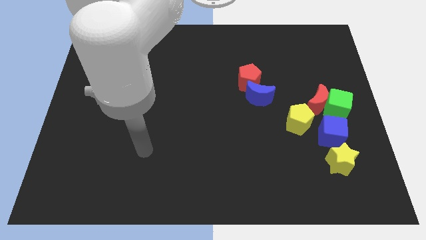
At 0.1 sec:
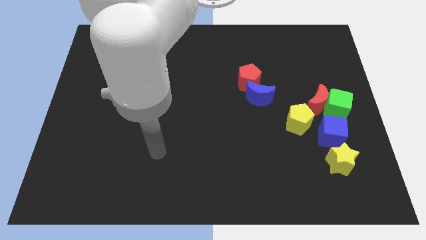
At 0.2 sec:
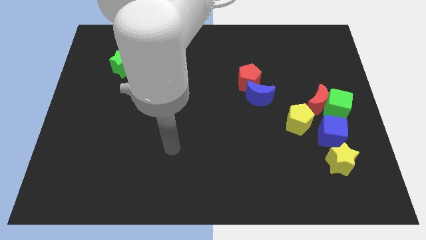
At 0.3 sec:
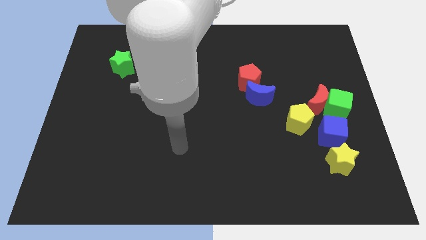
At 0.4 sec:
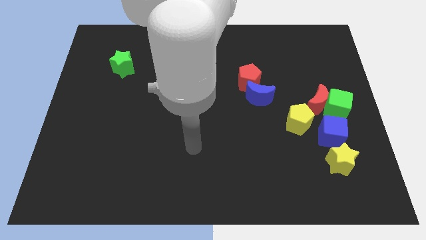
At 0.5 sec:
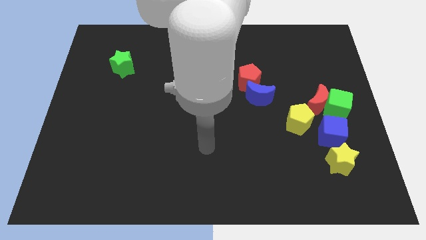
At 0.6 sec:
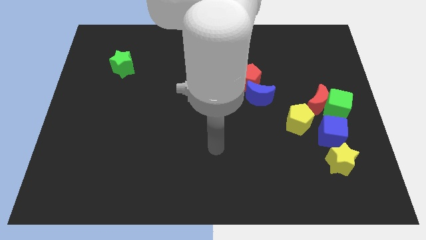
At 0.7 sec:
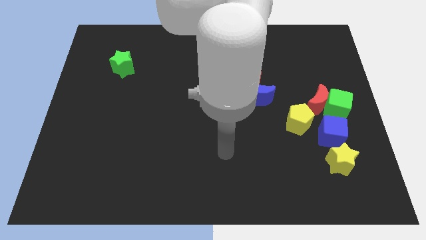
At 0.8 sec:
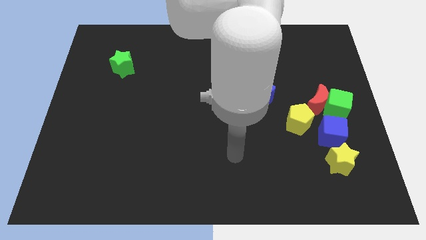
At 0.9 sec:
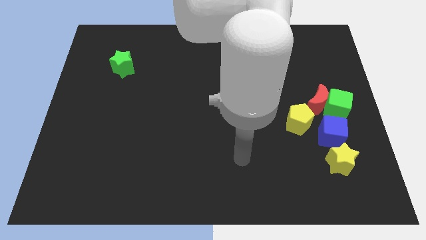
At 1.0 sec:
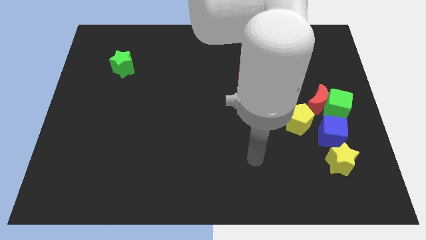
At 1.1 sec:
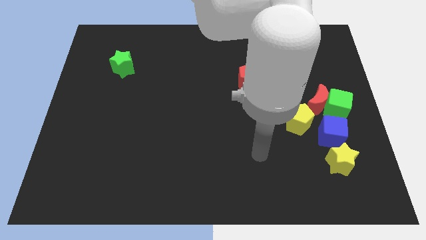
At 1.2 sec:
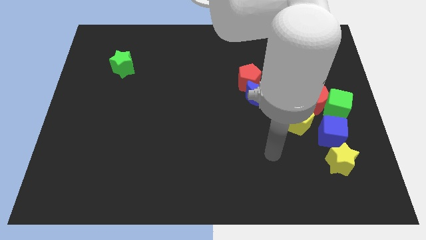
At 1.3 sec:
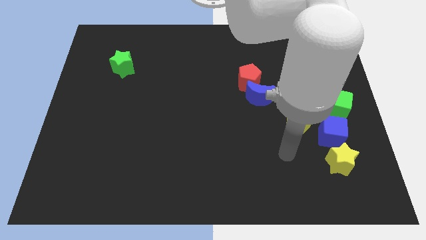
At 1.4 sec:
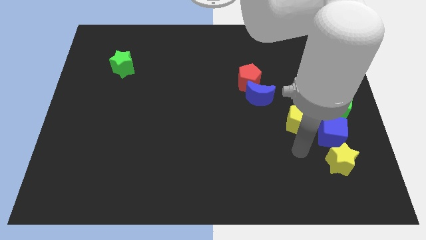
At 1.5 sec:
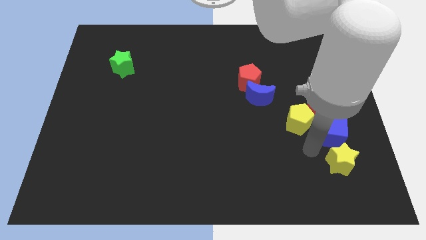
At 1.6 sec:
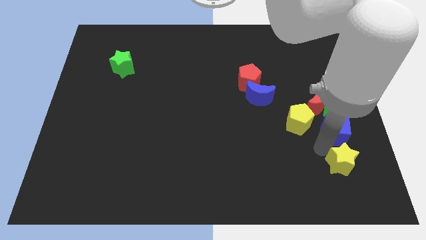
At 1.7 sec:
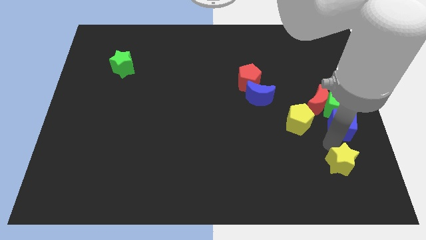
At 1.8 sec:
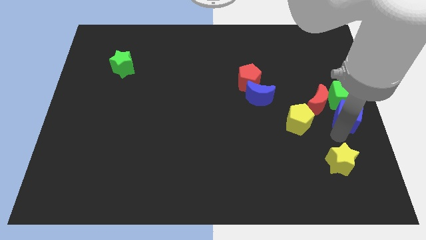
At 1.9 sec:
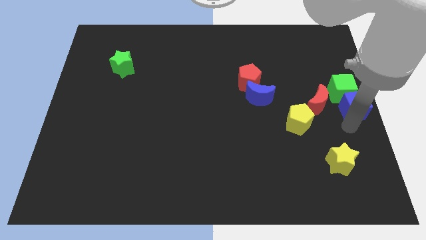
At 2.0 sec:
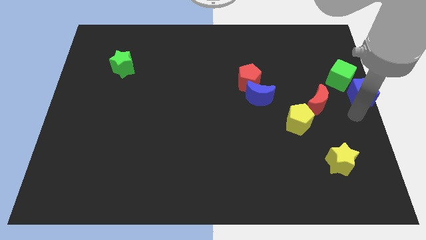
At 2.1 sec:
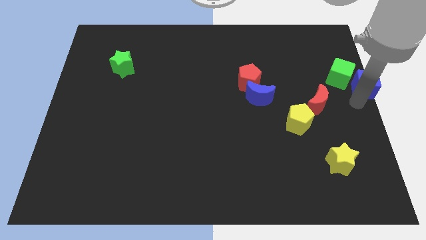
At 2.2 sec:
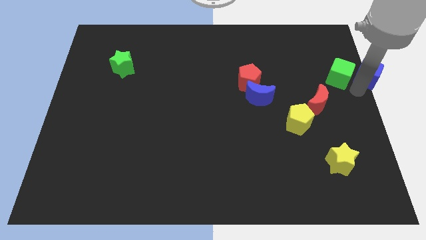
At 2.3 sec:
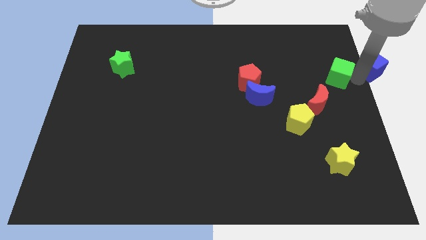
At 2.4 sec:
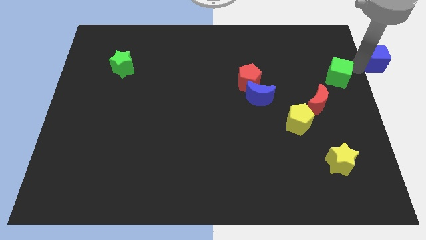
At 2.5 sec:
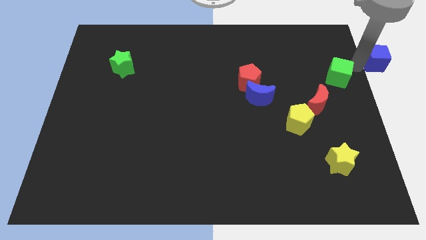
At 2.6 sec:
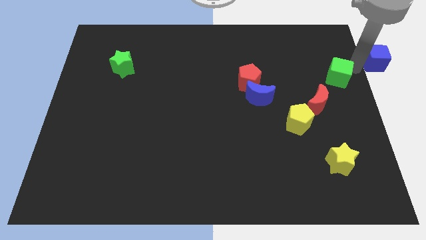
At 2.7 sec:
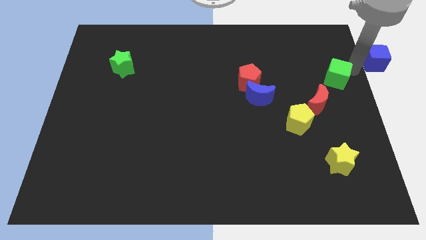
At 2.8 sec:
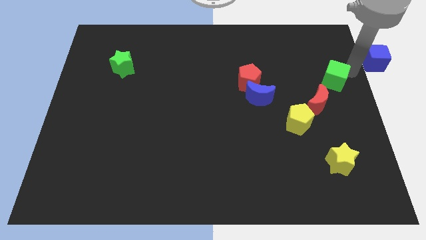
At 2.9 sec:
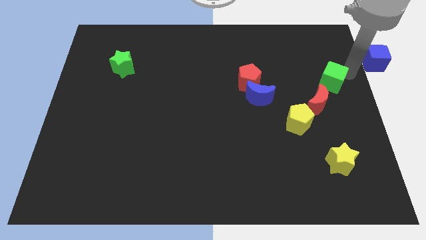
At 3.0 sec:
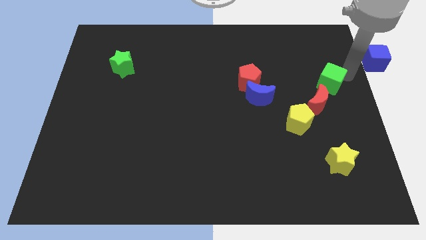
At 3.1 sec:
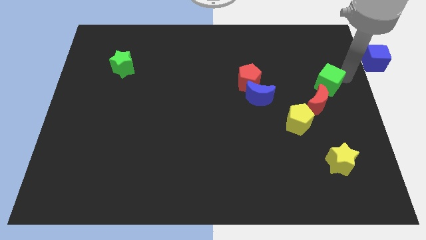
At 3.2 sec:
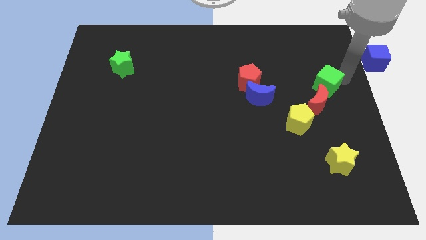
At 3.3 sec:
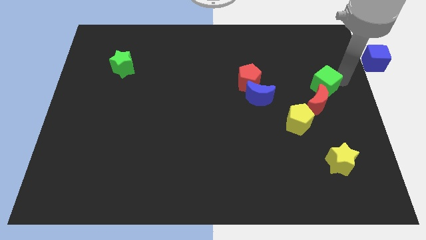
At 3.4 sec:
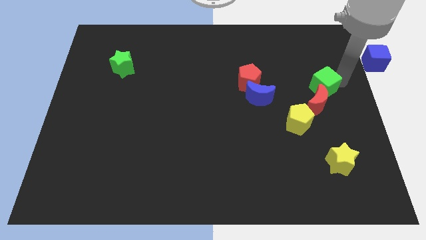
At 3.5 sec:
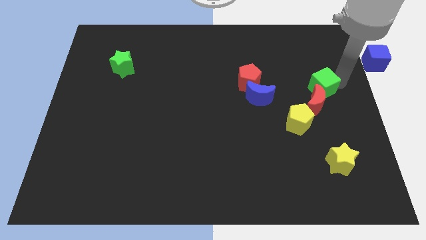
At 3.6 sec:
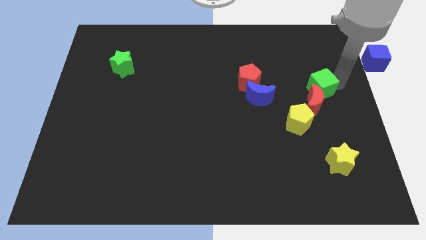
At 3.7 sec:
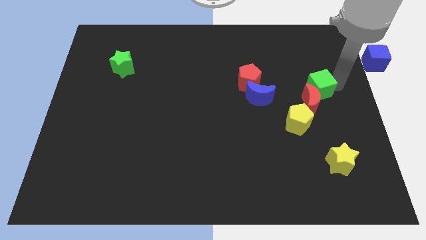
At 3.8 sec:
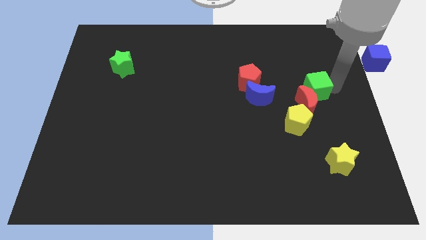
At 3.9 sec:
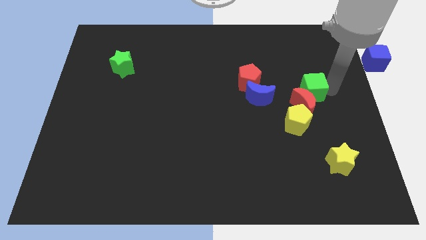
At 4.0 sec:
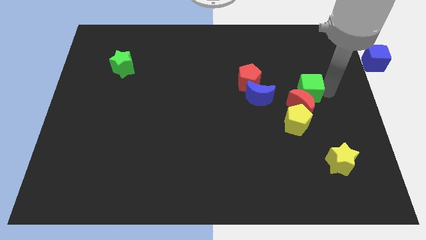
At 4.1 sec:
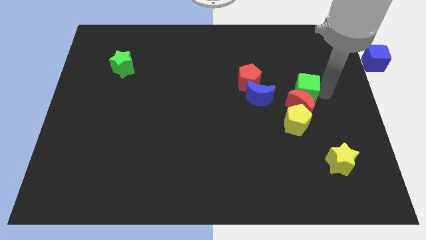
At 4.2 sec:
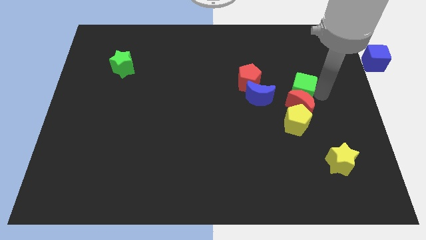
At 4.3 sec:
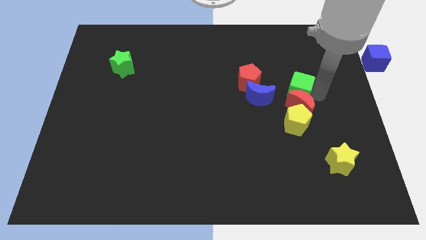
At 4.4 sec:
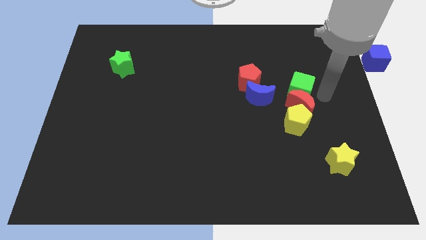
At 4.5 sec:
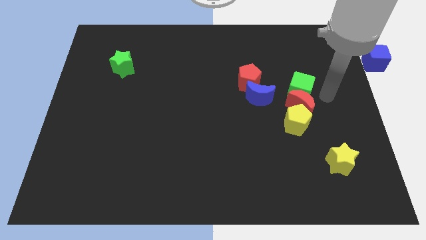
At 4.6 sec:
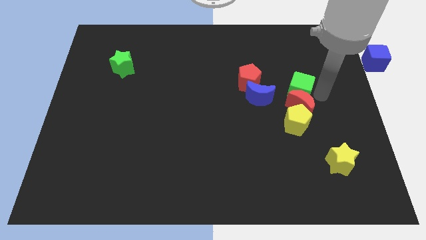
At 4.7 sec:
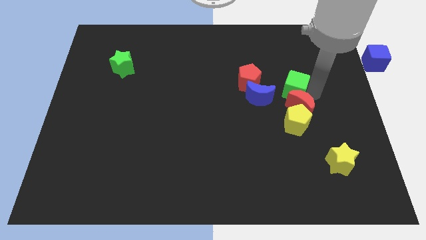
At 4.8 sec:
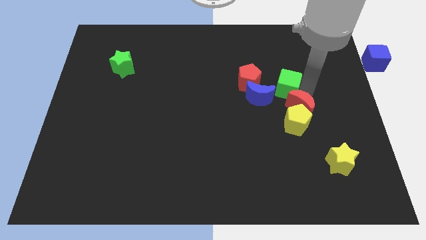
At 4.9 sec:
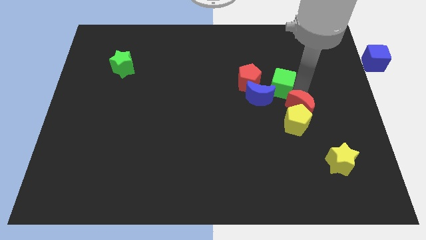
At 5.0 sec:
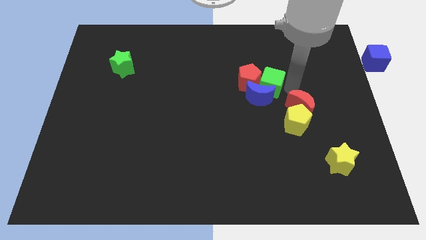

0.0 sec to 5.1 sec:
push the green cube towards the red pentagon

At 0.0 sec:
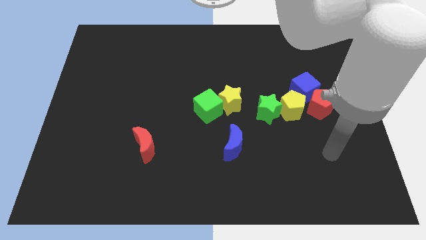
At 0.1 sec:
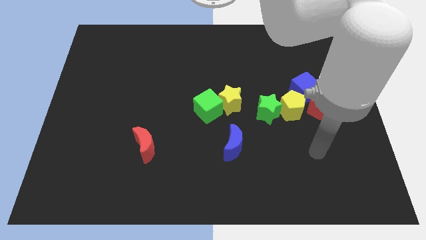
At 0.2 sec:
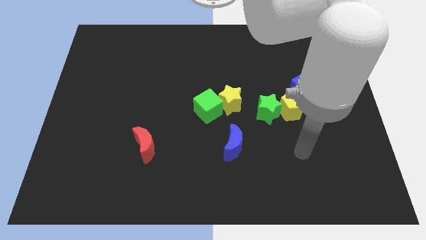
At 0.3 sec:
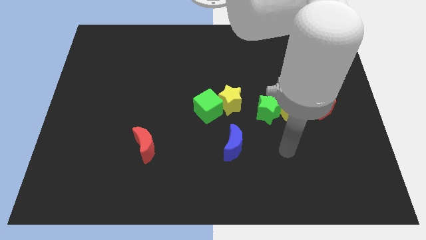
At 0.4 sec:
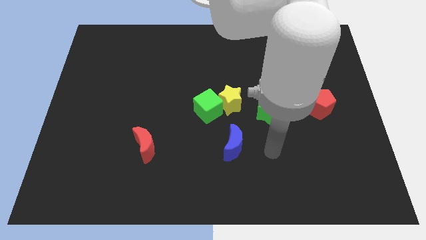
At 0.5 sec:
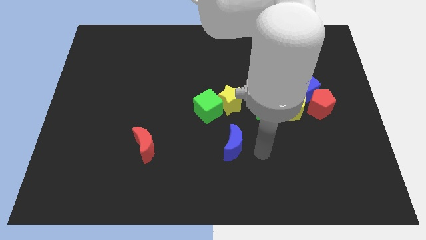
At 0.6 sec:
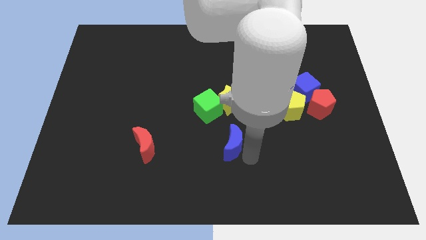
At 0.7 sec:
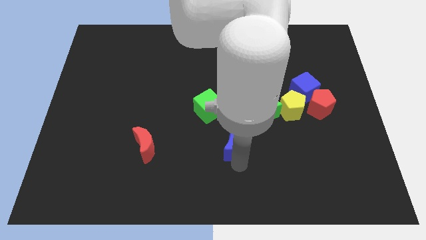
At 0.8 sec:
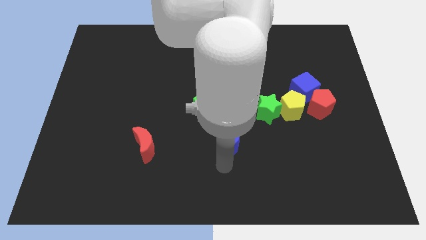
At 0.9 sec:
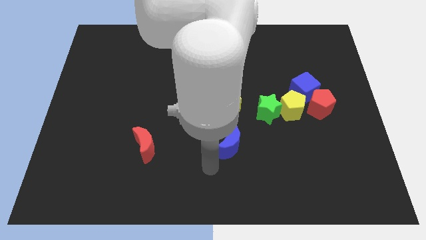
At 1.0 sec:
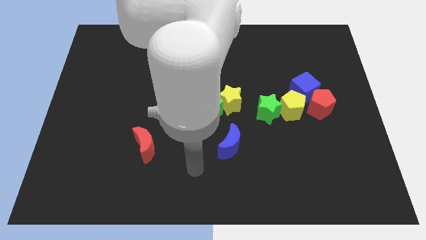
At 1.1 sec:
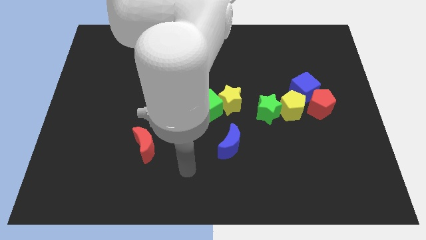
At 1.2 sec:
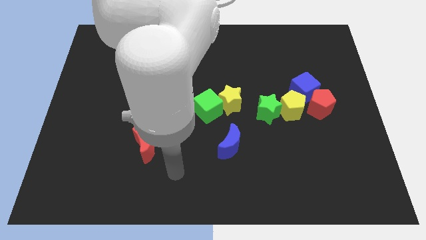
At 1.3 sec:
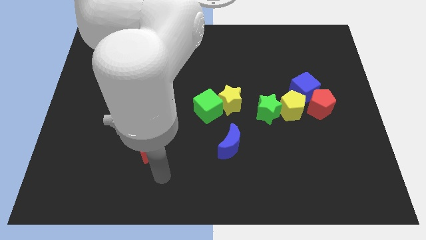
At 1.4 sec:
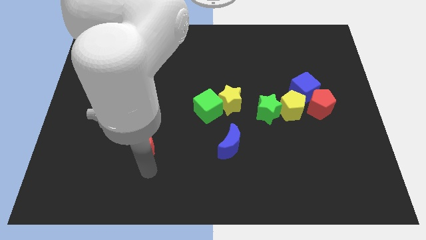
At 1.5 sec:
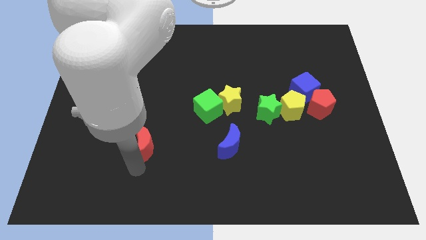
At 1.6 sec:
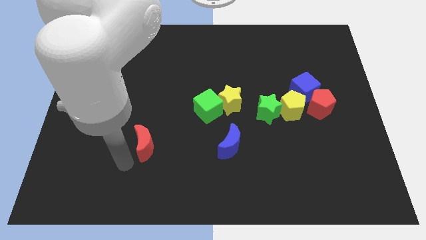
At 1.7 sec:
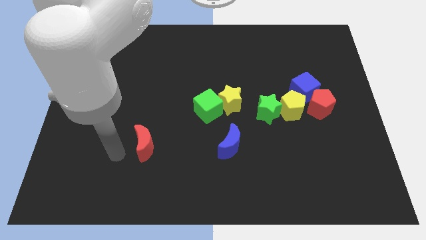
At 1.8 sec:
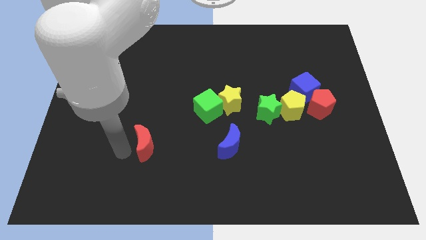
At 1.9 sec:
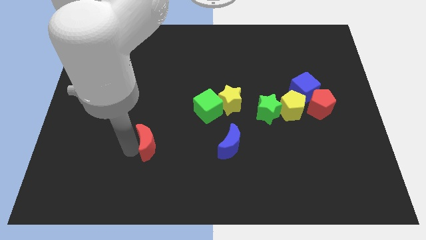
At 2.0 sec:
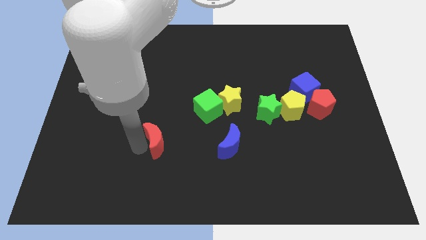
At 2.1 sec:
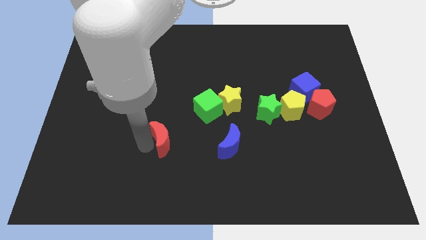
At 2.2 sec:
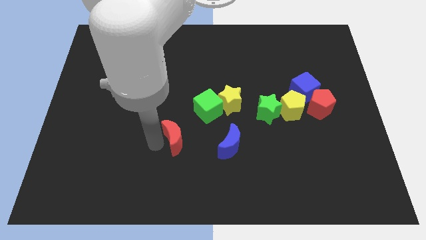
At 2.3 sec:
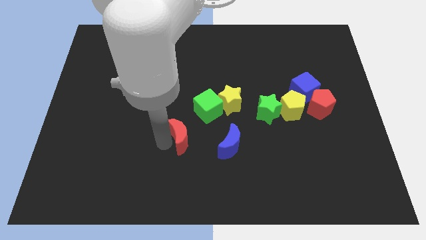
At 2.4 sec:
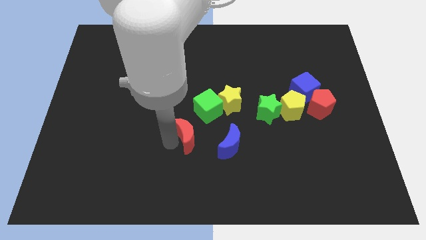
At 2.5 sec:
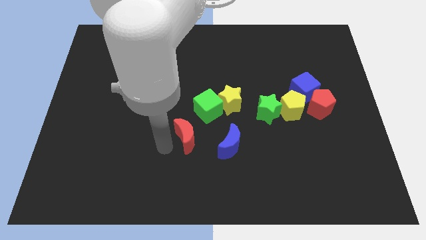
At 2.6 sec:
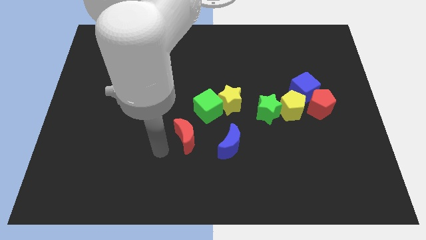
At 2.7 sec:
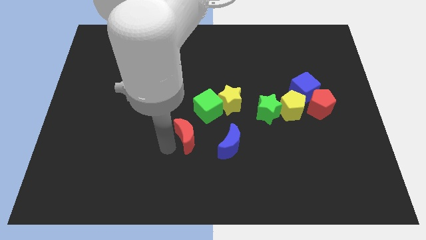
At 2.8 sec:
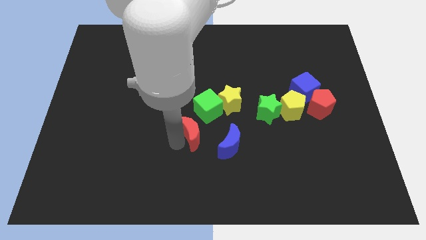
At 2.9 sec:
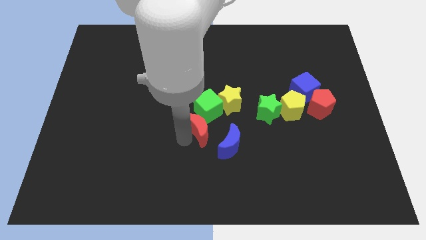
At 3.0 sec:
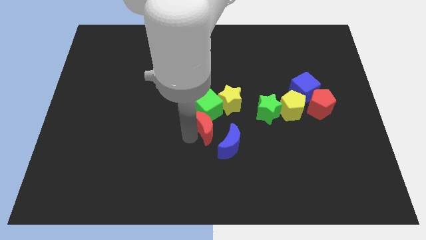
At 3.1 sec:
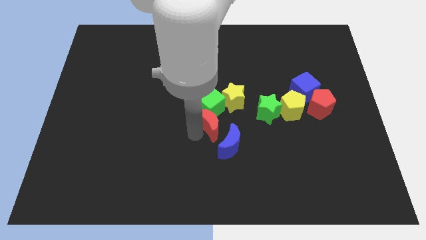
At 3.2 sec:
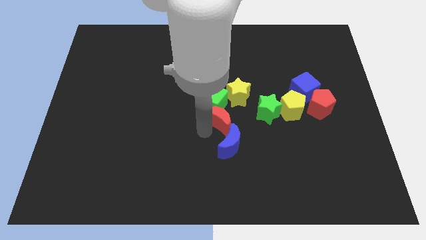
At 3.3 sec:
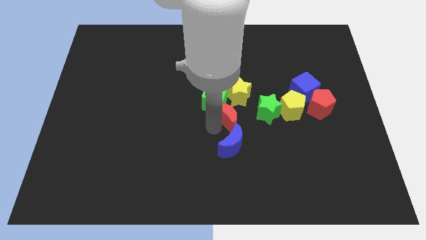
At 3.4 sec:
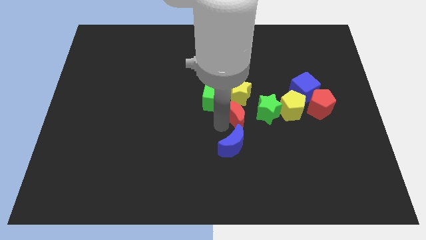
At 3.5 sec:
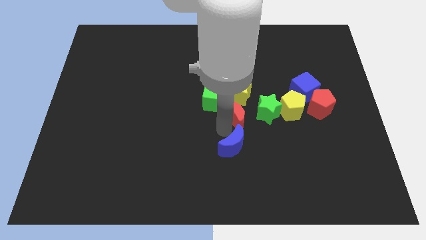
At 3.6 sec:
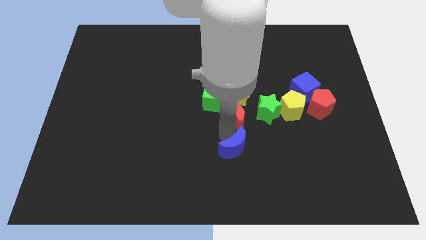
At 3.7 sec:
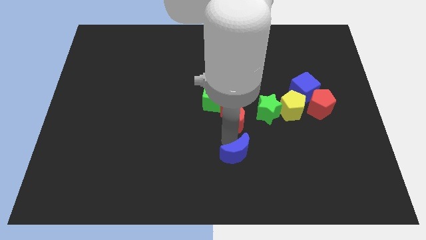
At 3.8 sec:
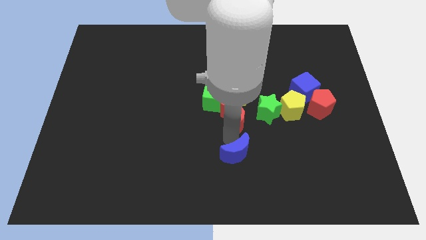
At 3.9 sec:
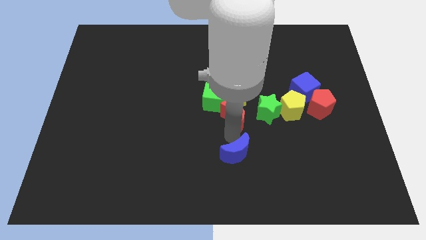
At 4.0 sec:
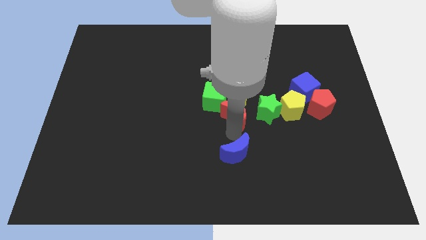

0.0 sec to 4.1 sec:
move the red moon to the yellow star
